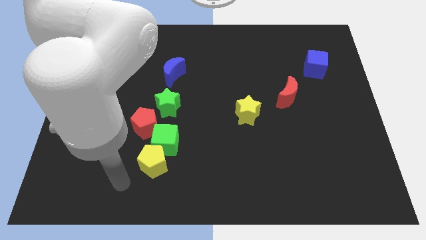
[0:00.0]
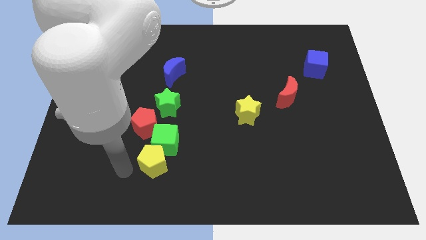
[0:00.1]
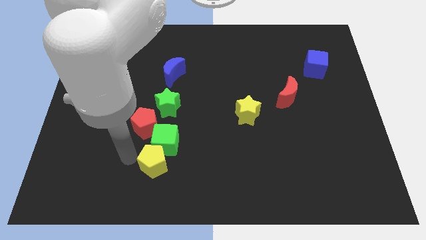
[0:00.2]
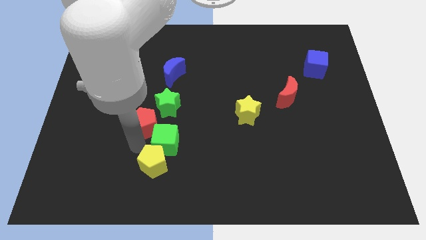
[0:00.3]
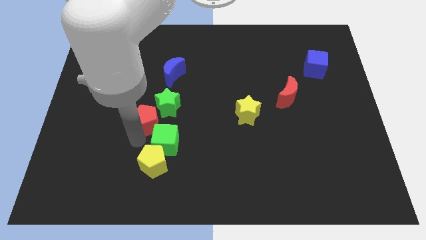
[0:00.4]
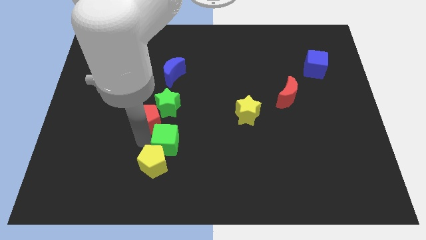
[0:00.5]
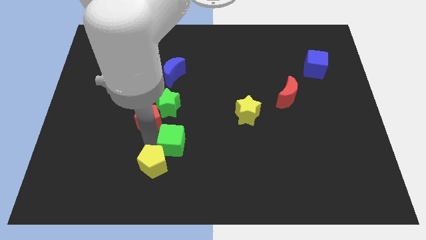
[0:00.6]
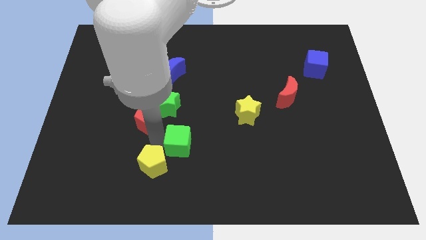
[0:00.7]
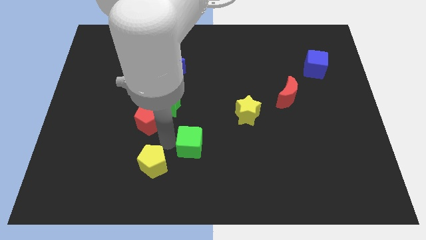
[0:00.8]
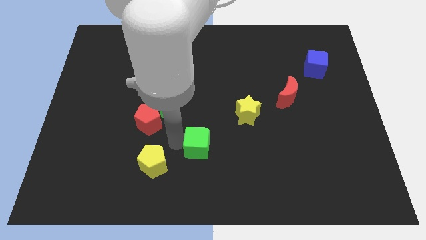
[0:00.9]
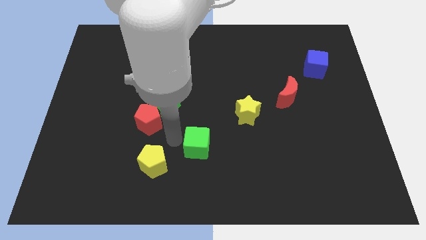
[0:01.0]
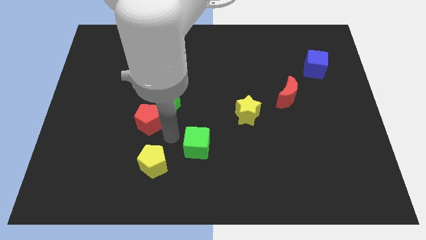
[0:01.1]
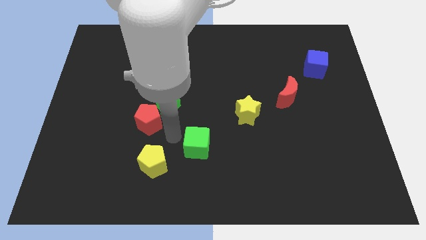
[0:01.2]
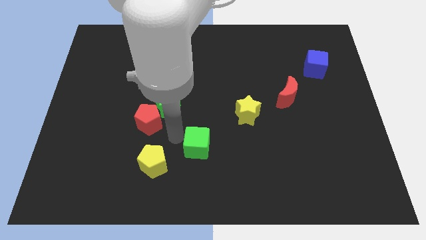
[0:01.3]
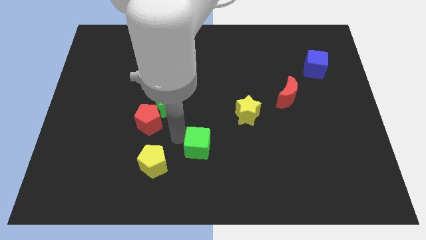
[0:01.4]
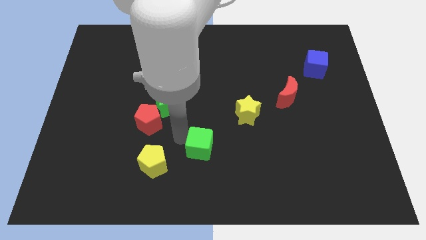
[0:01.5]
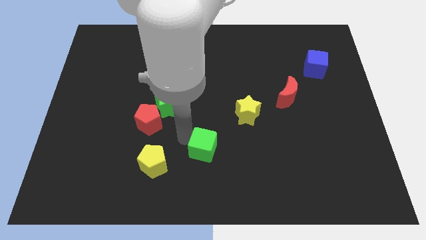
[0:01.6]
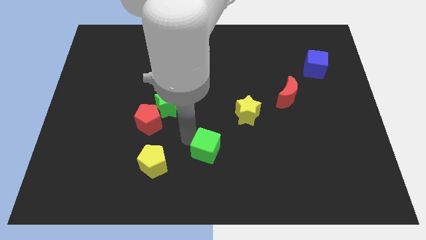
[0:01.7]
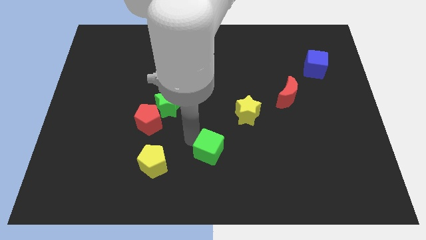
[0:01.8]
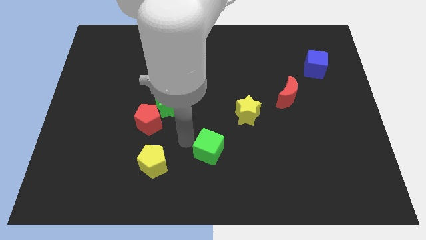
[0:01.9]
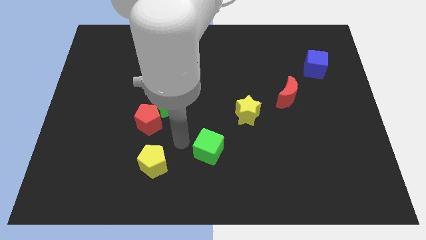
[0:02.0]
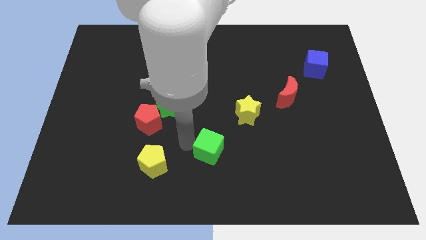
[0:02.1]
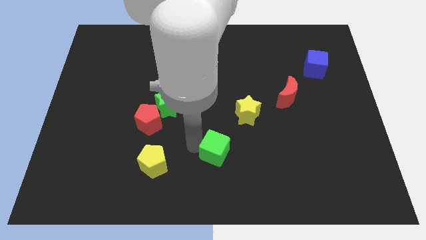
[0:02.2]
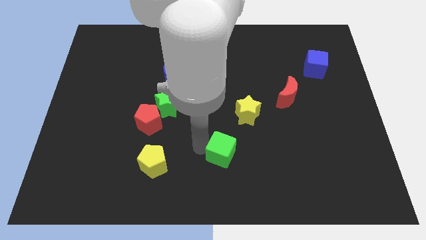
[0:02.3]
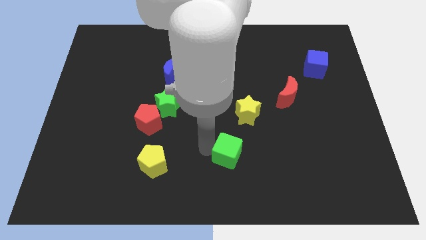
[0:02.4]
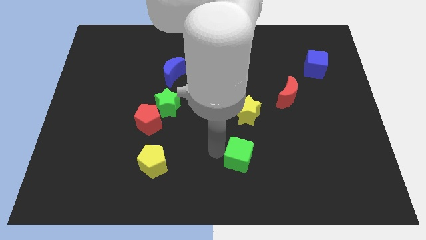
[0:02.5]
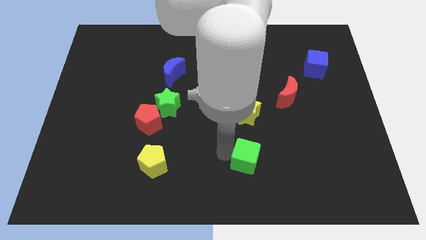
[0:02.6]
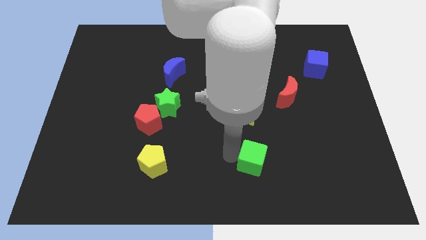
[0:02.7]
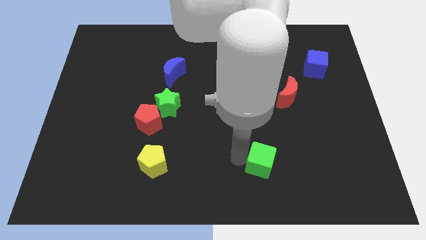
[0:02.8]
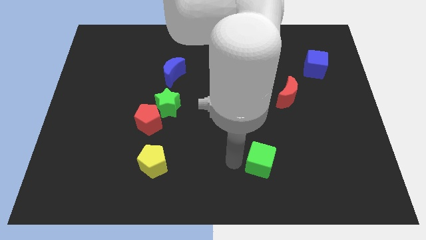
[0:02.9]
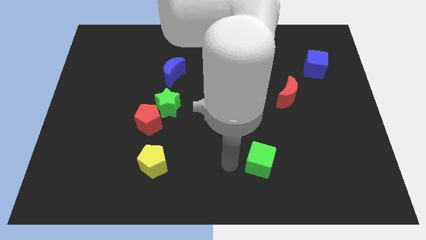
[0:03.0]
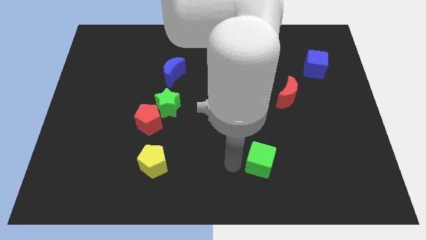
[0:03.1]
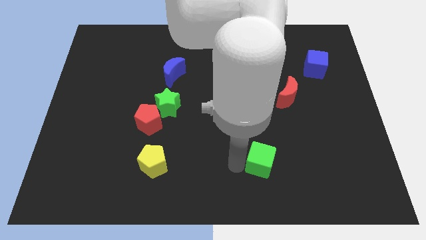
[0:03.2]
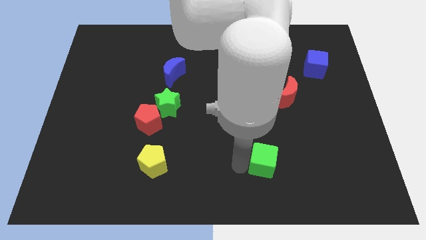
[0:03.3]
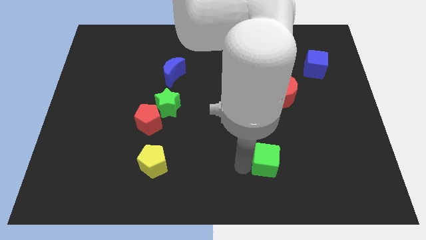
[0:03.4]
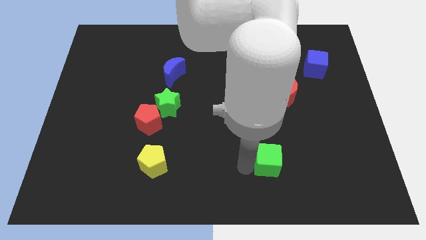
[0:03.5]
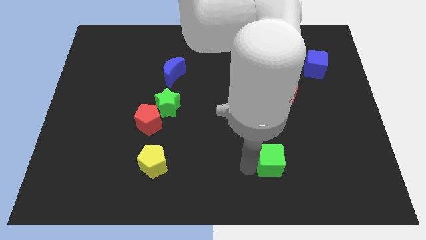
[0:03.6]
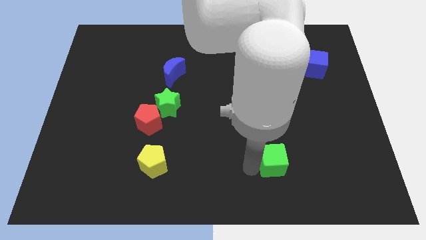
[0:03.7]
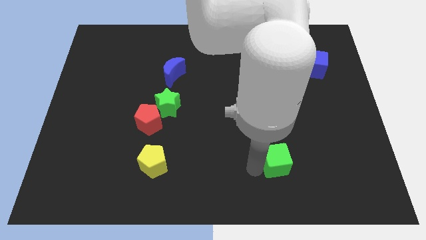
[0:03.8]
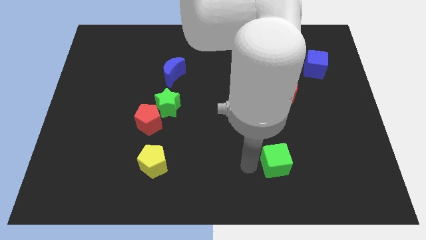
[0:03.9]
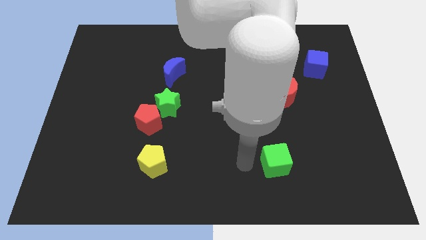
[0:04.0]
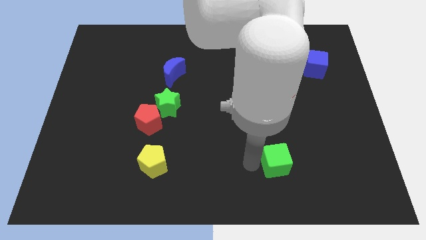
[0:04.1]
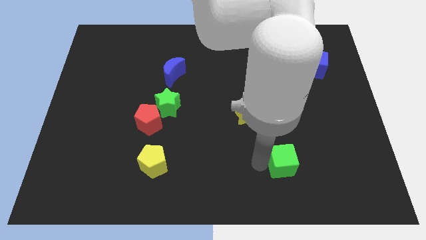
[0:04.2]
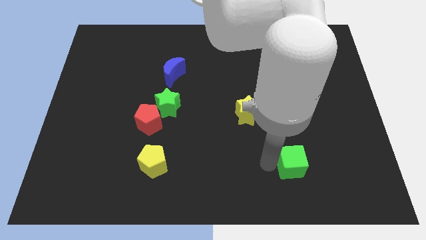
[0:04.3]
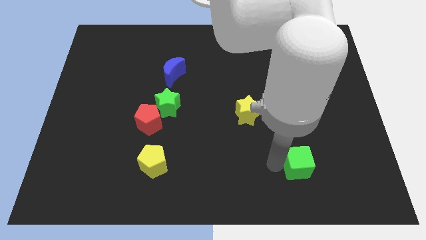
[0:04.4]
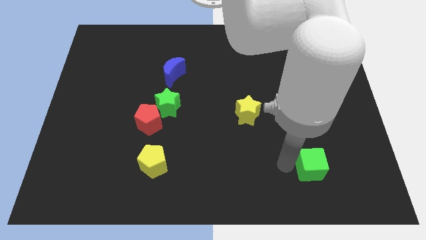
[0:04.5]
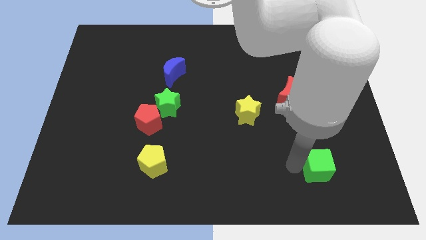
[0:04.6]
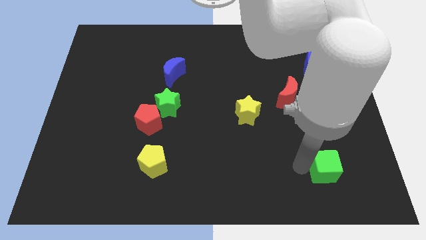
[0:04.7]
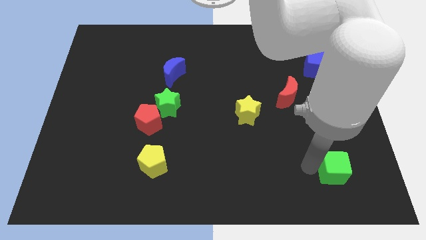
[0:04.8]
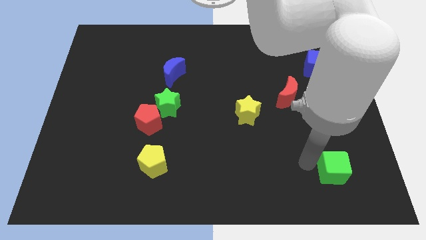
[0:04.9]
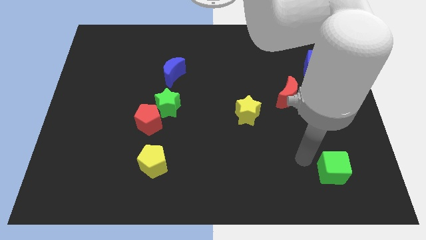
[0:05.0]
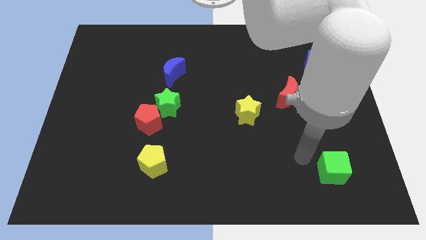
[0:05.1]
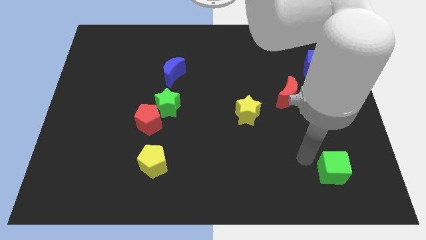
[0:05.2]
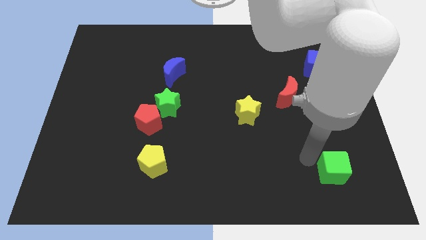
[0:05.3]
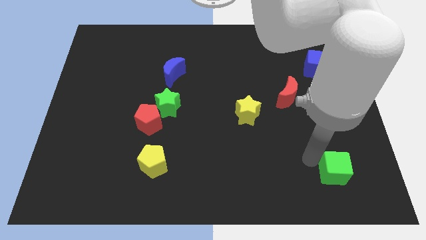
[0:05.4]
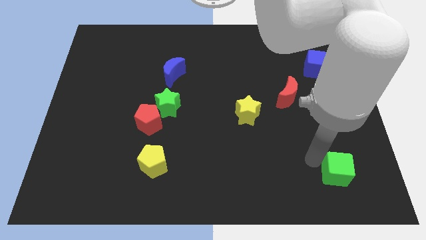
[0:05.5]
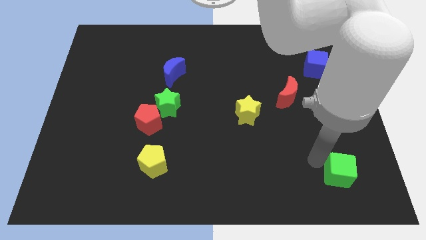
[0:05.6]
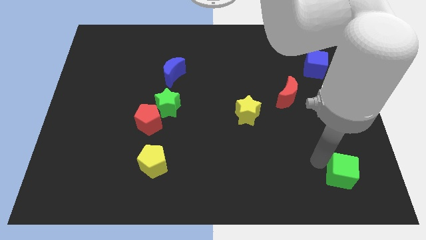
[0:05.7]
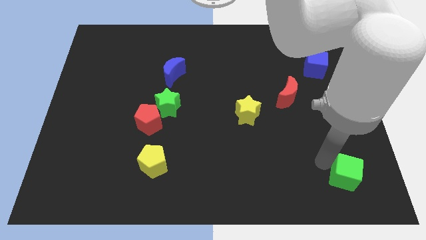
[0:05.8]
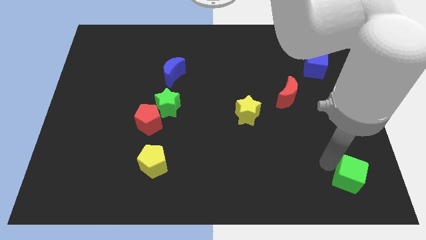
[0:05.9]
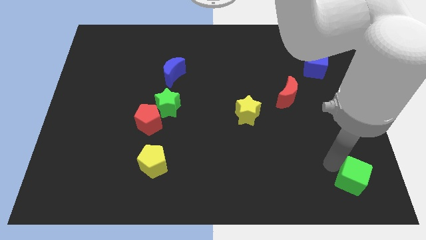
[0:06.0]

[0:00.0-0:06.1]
push the green cube to the bottom right

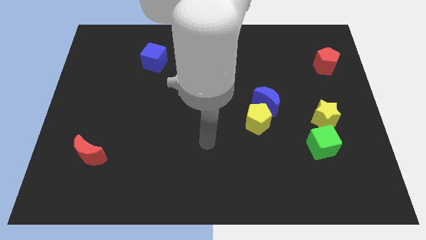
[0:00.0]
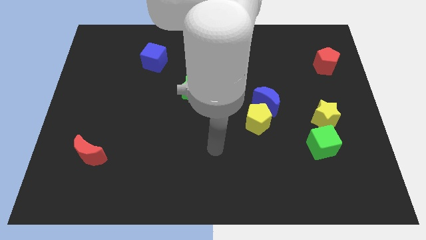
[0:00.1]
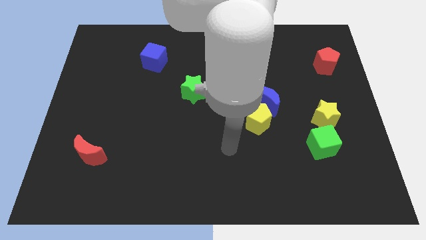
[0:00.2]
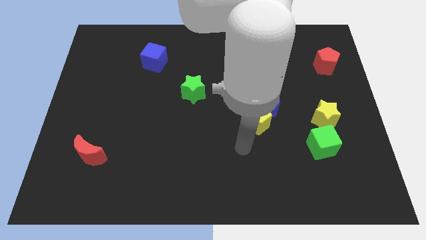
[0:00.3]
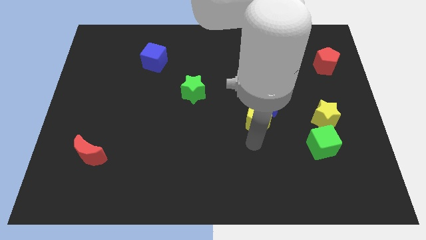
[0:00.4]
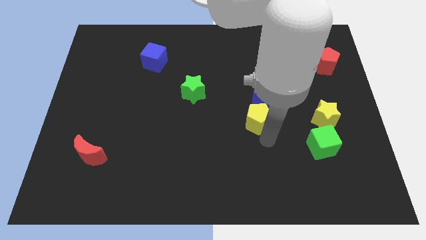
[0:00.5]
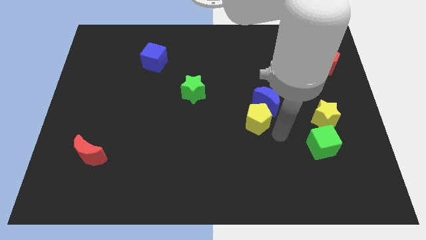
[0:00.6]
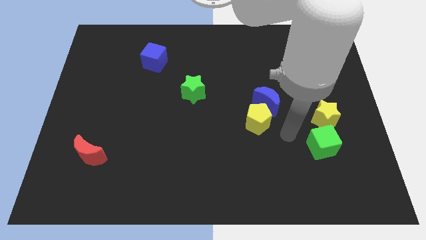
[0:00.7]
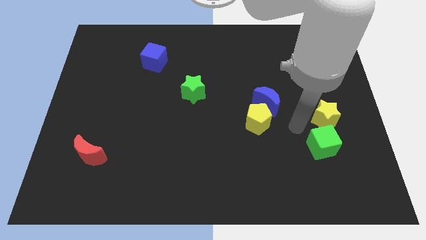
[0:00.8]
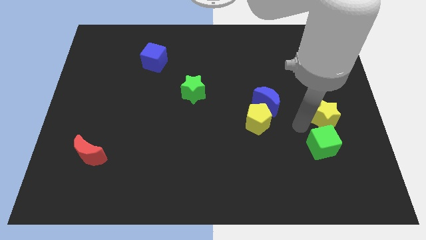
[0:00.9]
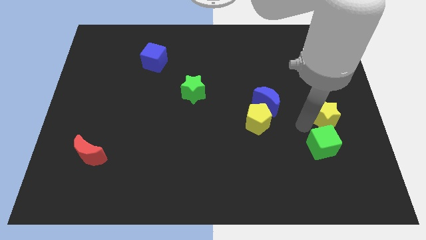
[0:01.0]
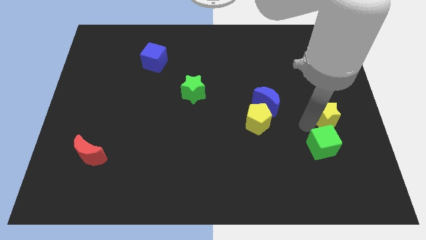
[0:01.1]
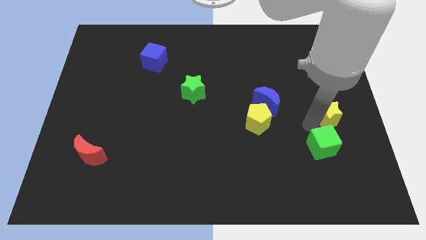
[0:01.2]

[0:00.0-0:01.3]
slide the yellow star to the right side
